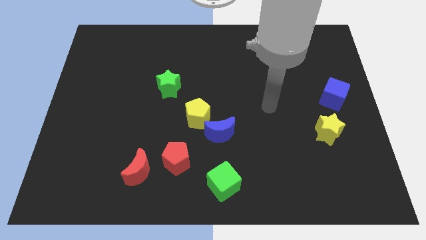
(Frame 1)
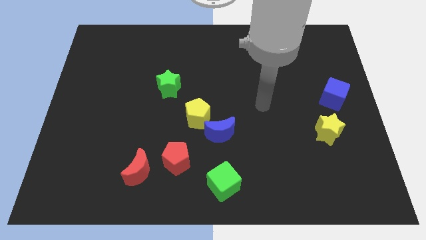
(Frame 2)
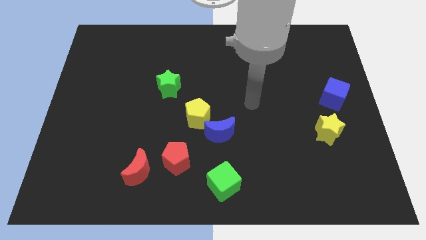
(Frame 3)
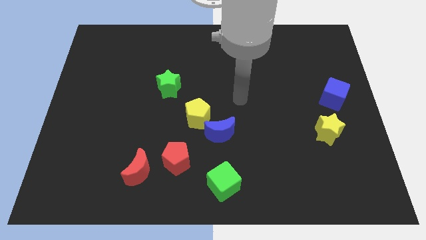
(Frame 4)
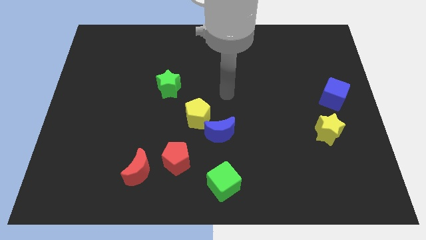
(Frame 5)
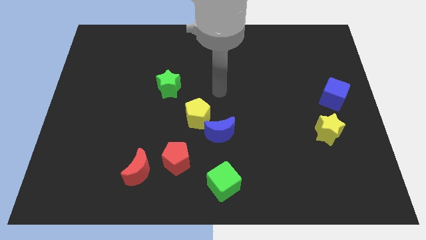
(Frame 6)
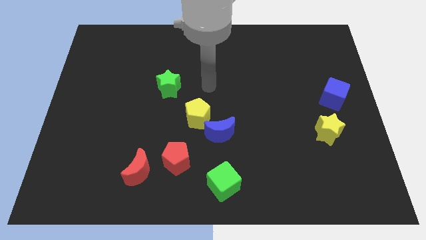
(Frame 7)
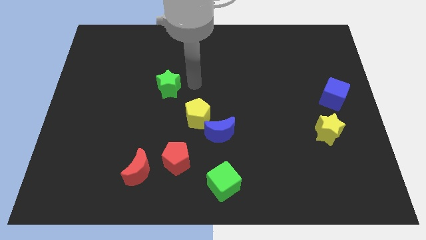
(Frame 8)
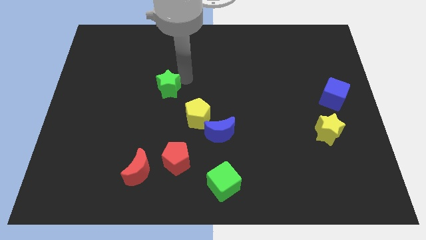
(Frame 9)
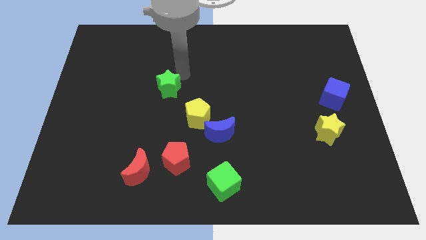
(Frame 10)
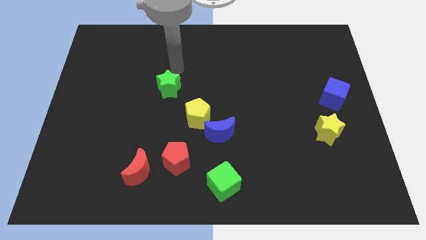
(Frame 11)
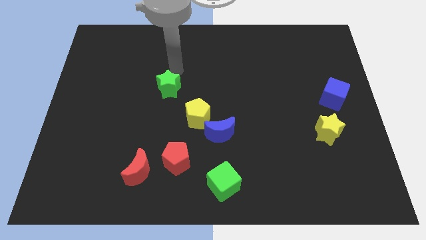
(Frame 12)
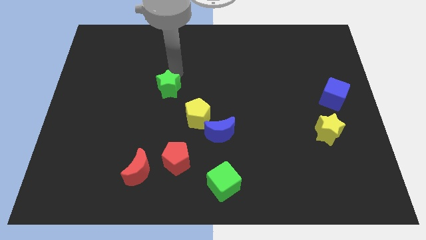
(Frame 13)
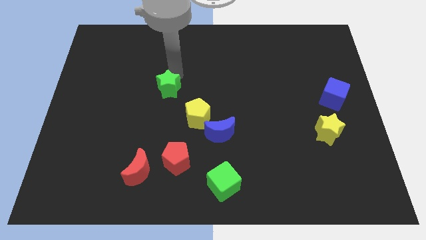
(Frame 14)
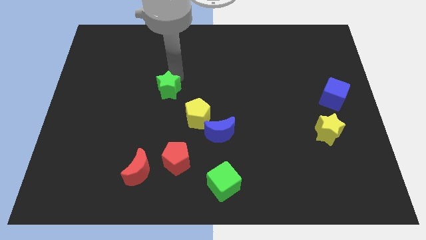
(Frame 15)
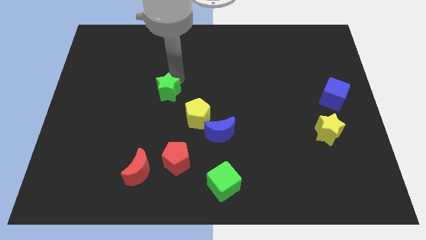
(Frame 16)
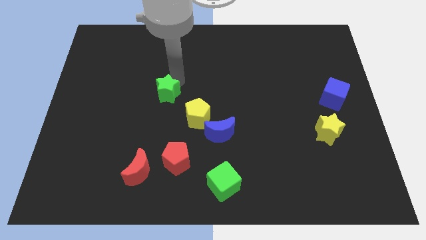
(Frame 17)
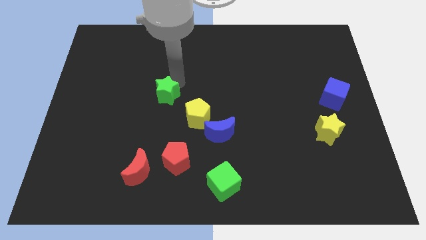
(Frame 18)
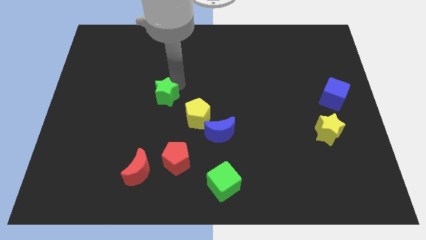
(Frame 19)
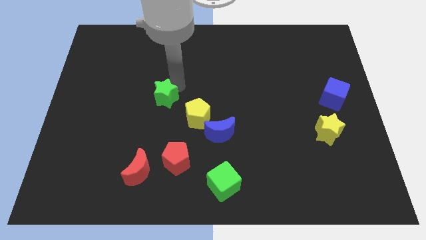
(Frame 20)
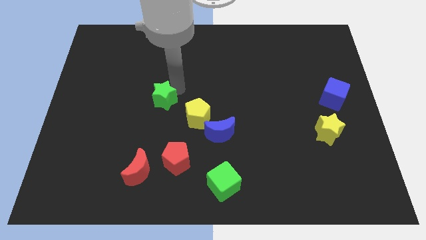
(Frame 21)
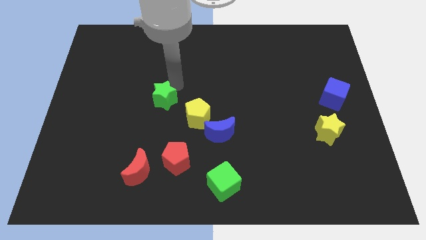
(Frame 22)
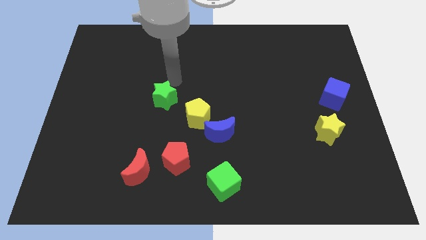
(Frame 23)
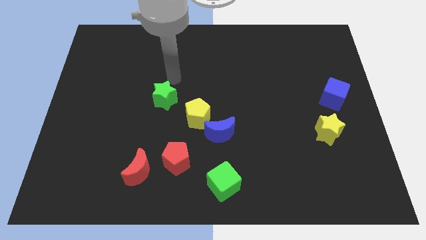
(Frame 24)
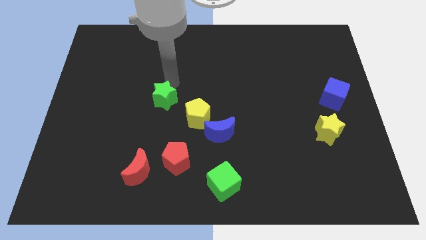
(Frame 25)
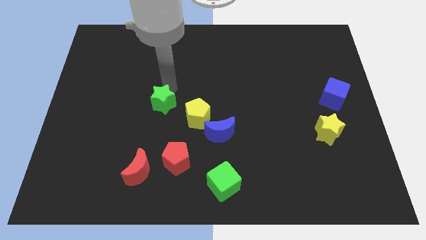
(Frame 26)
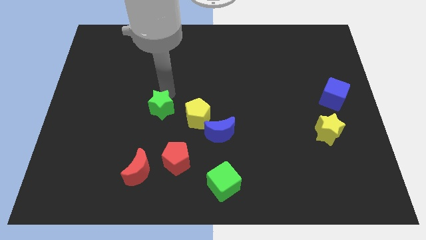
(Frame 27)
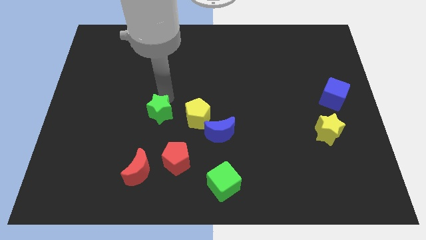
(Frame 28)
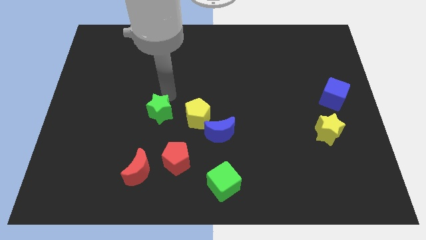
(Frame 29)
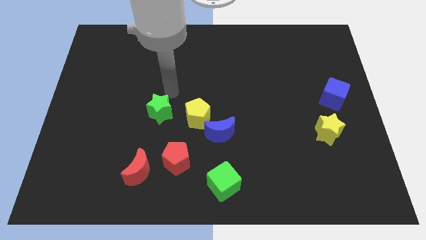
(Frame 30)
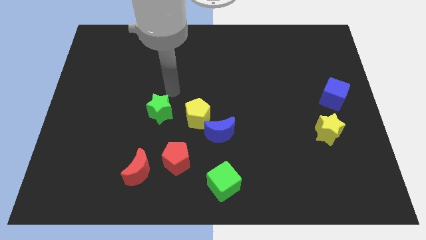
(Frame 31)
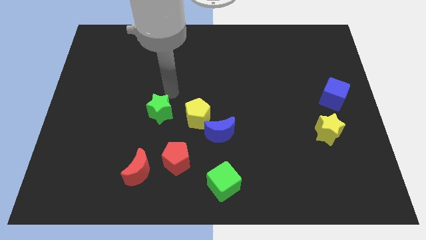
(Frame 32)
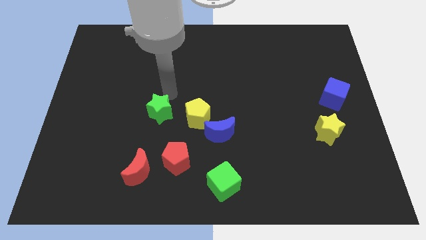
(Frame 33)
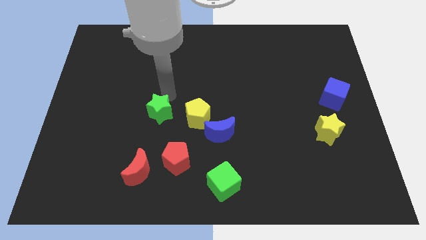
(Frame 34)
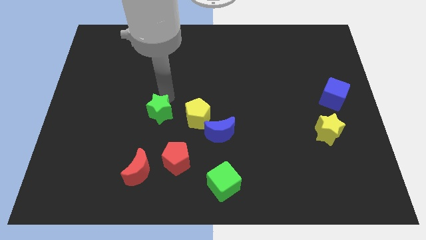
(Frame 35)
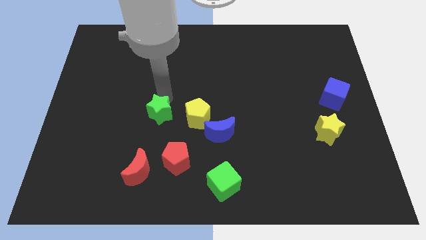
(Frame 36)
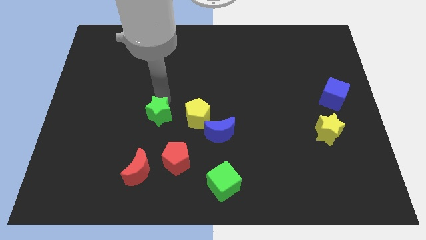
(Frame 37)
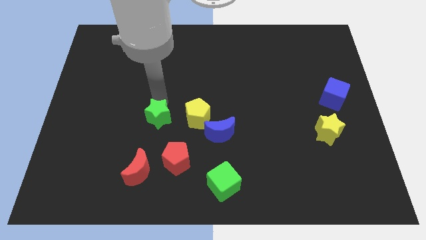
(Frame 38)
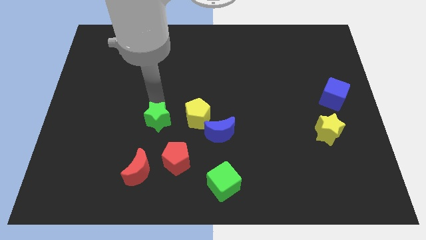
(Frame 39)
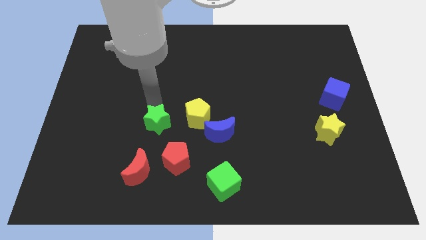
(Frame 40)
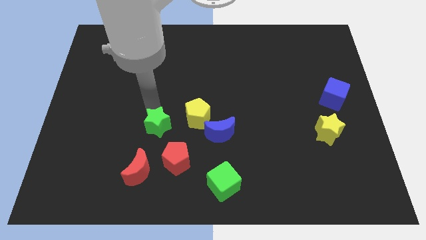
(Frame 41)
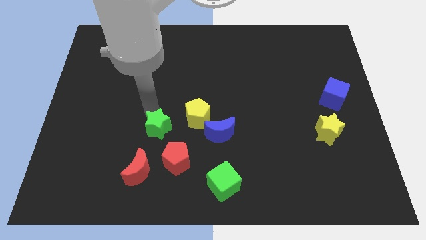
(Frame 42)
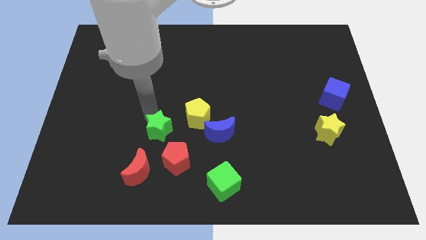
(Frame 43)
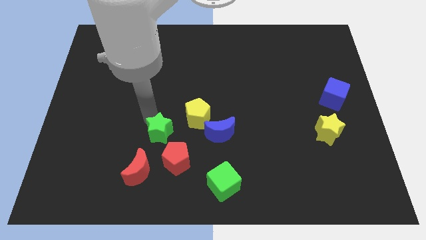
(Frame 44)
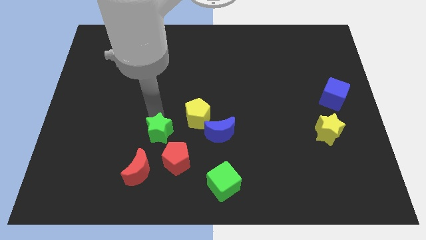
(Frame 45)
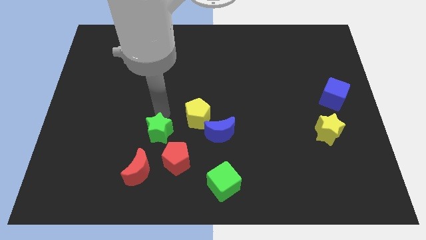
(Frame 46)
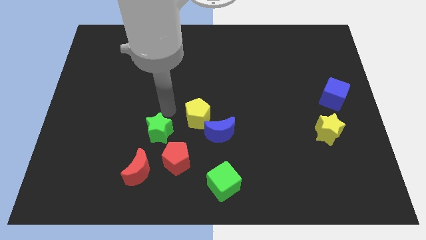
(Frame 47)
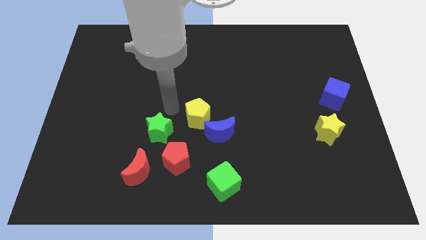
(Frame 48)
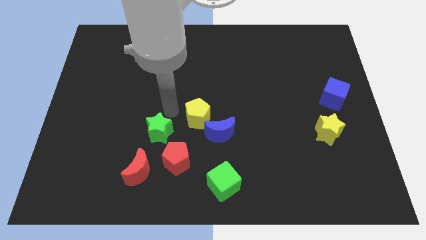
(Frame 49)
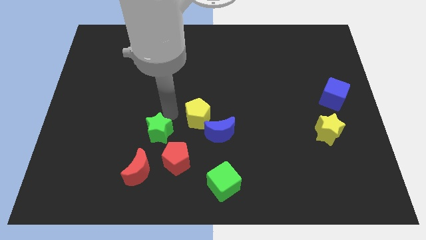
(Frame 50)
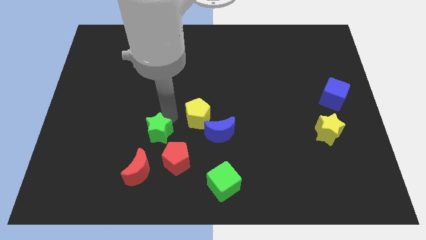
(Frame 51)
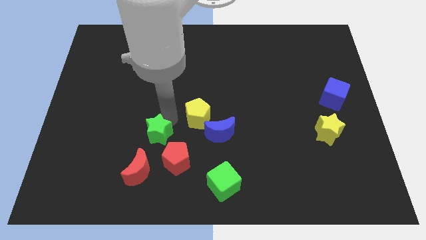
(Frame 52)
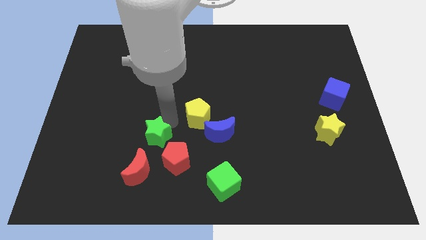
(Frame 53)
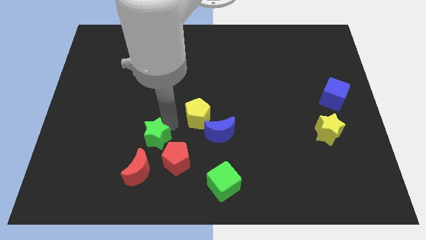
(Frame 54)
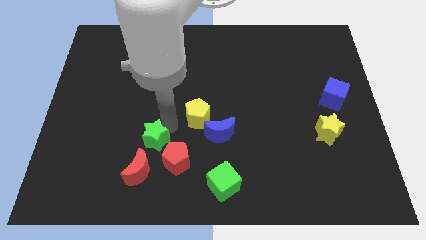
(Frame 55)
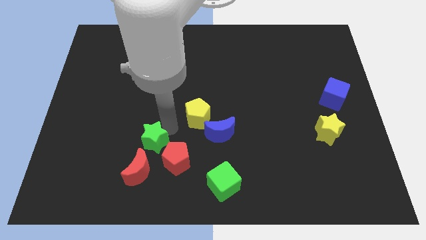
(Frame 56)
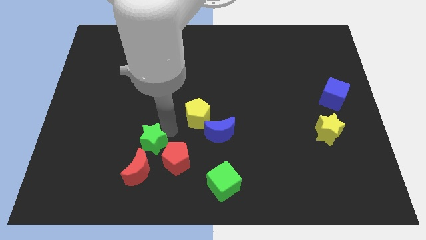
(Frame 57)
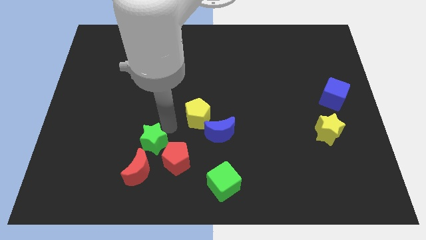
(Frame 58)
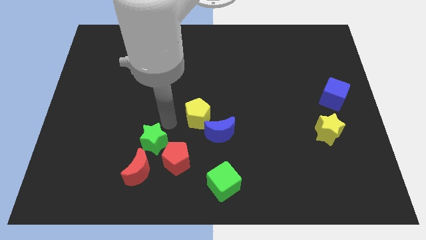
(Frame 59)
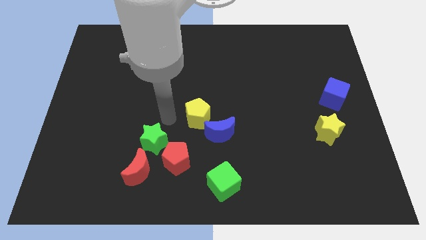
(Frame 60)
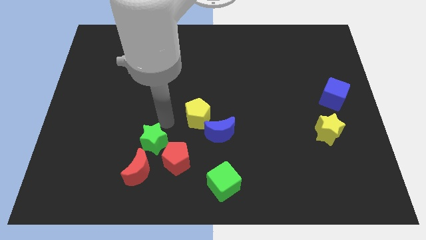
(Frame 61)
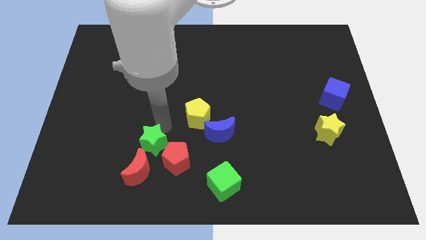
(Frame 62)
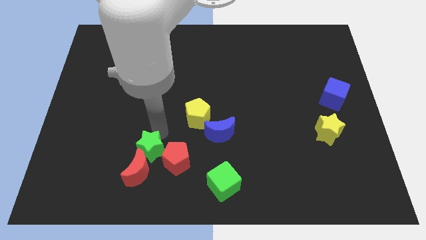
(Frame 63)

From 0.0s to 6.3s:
push the green star towards the red moon

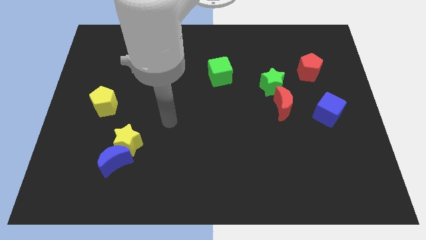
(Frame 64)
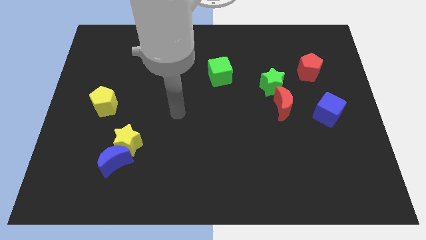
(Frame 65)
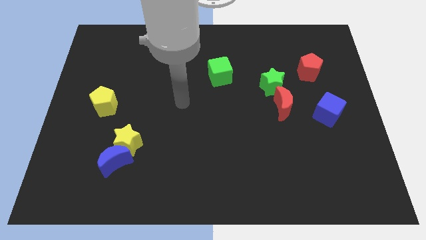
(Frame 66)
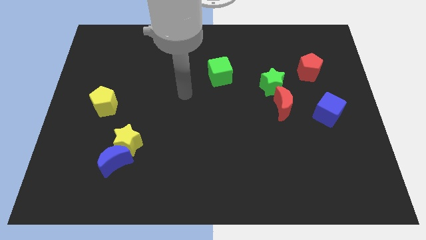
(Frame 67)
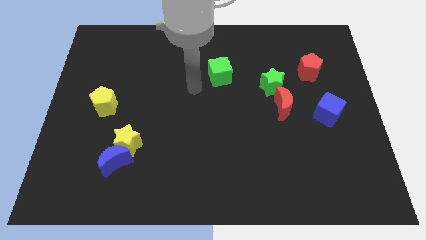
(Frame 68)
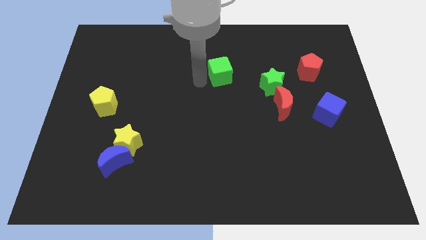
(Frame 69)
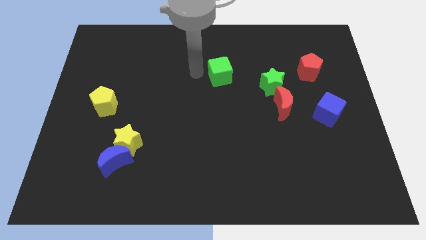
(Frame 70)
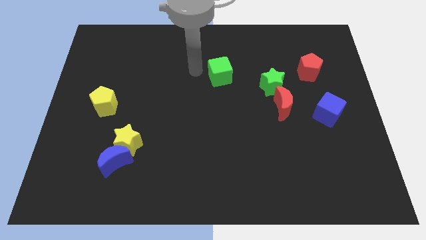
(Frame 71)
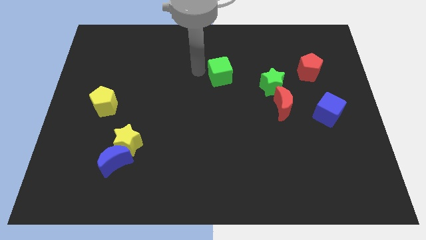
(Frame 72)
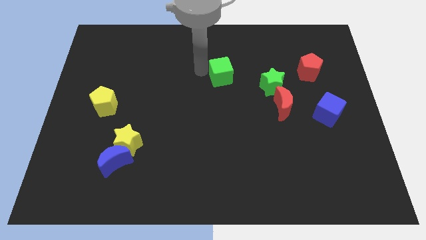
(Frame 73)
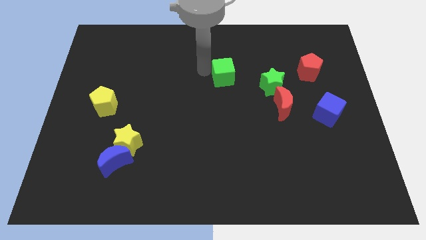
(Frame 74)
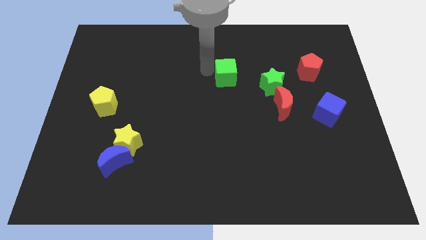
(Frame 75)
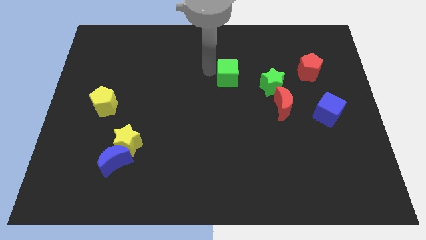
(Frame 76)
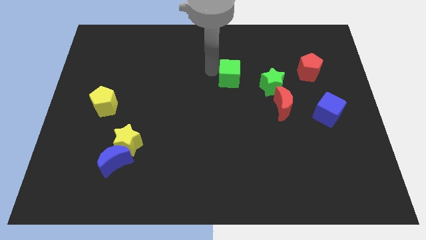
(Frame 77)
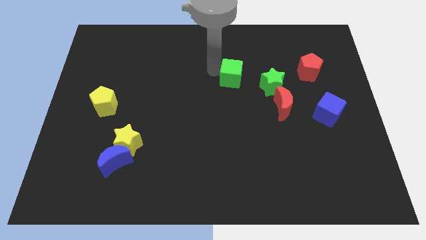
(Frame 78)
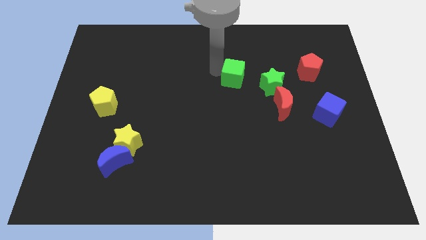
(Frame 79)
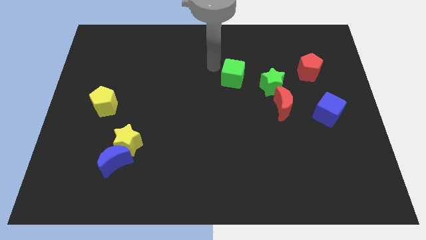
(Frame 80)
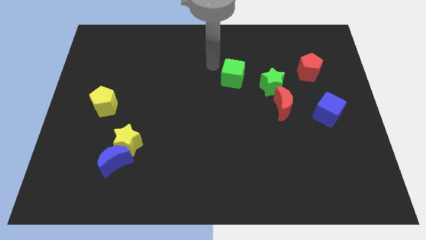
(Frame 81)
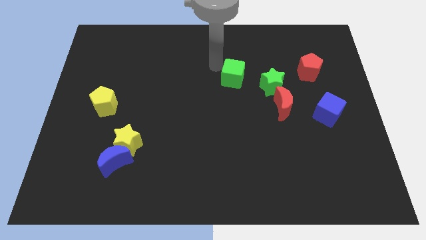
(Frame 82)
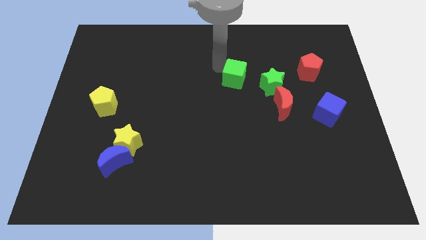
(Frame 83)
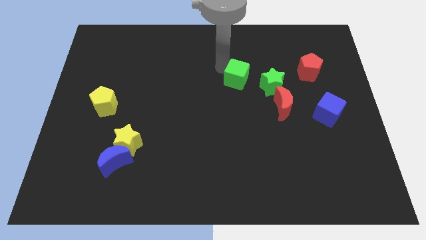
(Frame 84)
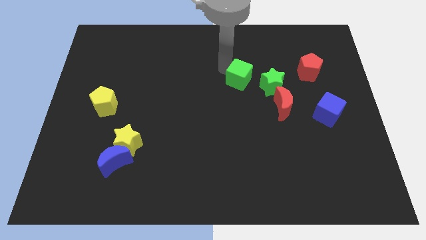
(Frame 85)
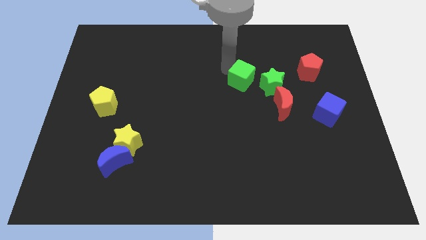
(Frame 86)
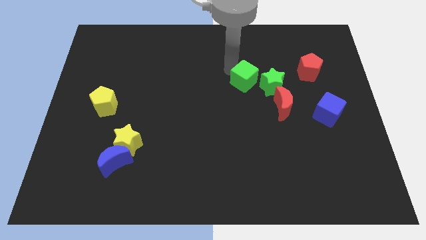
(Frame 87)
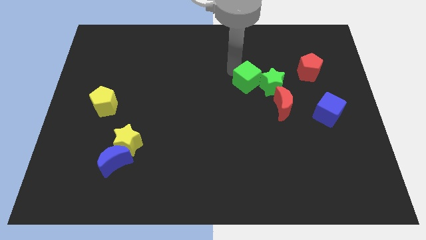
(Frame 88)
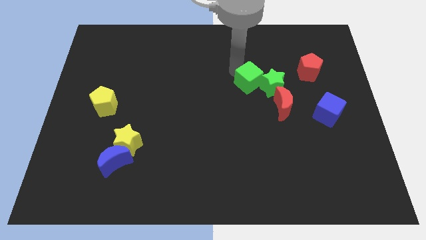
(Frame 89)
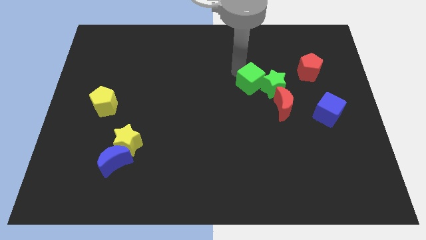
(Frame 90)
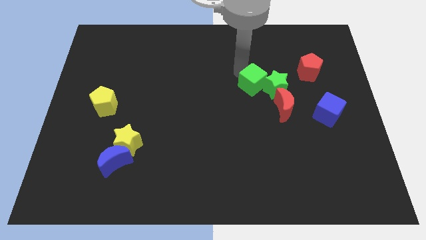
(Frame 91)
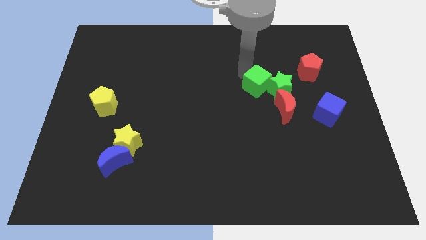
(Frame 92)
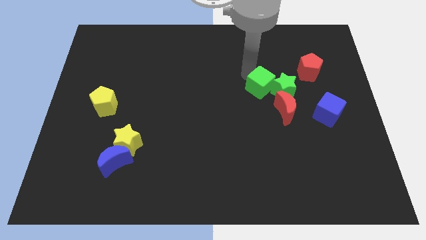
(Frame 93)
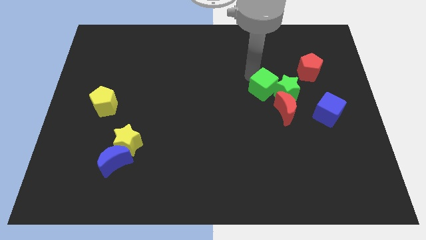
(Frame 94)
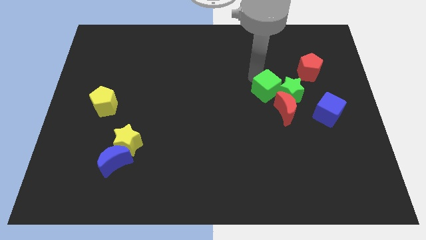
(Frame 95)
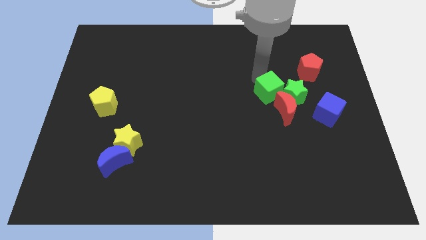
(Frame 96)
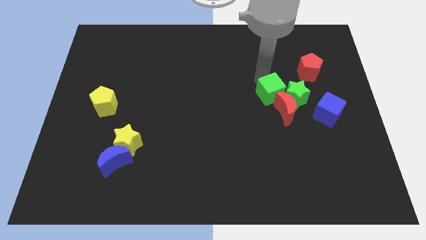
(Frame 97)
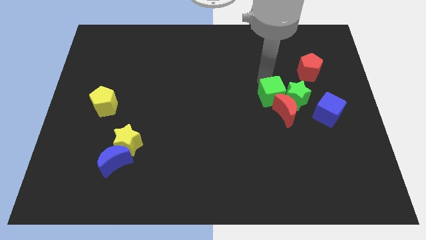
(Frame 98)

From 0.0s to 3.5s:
slide the green cube to the red moon
